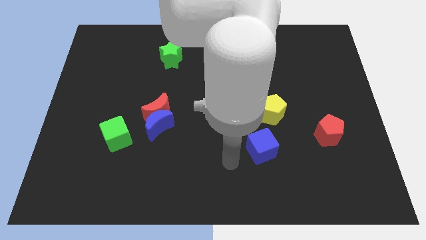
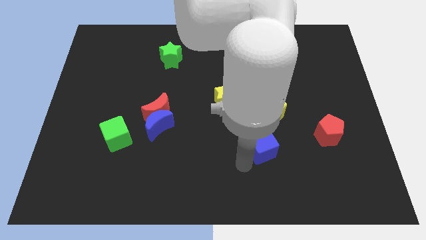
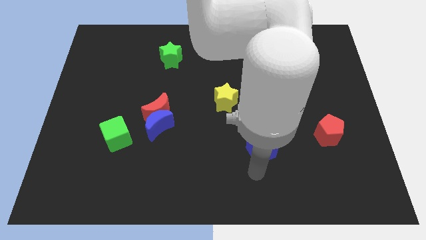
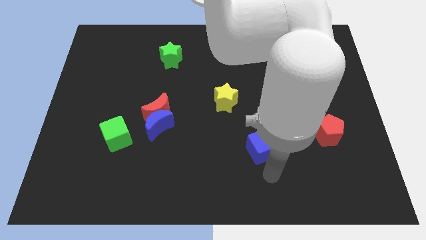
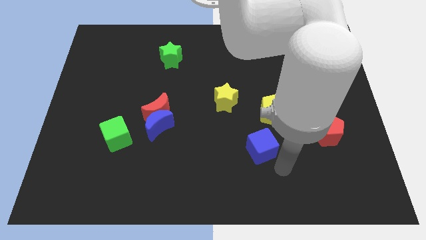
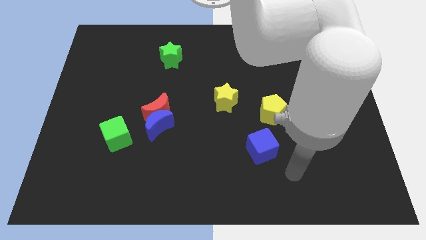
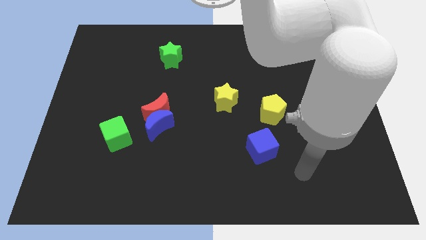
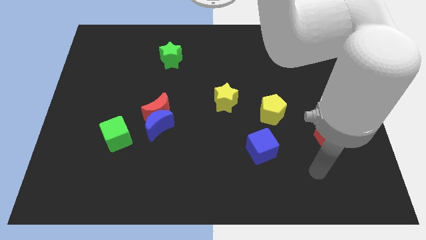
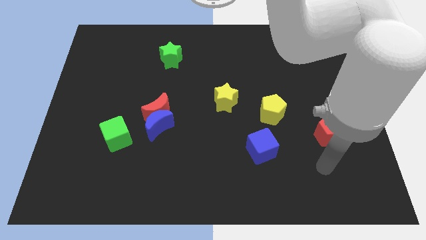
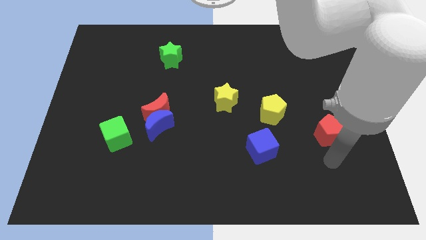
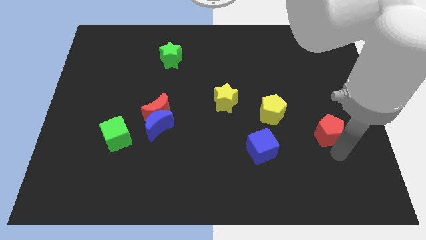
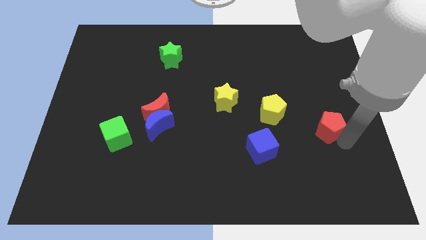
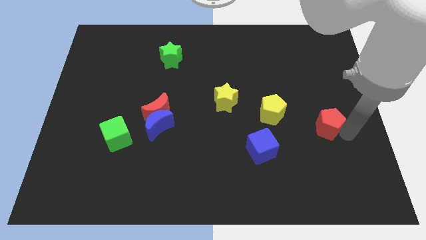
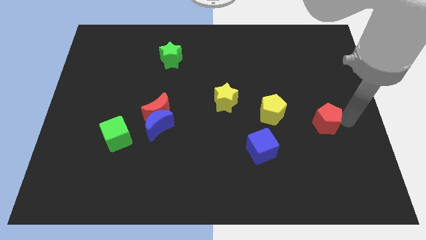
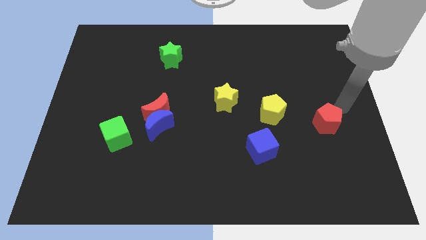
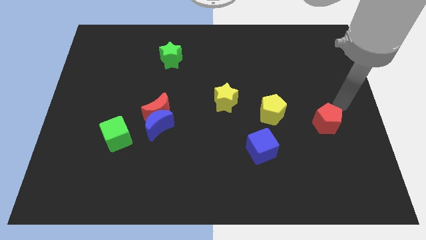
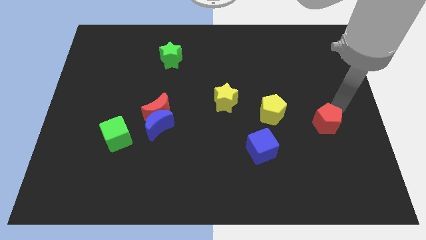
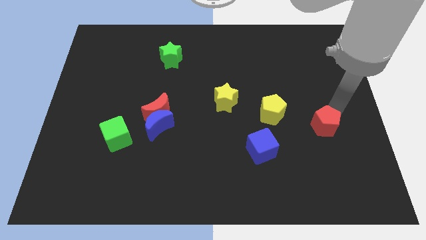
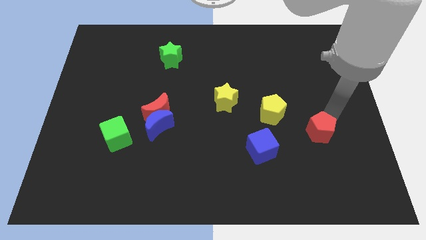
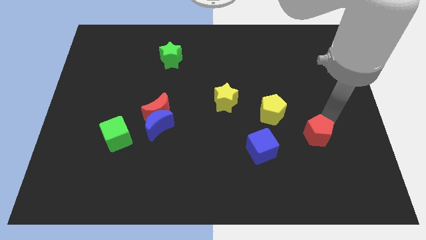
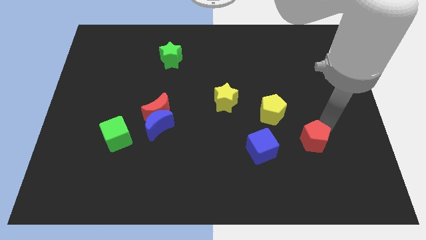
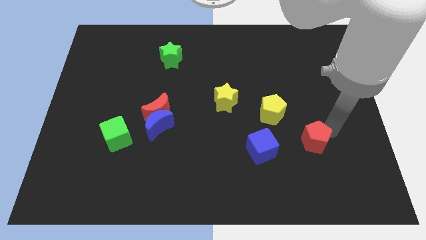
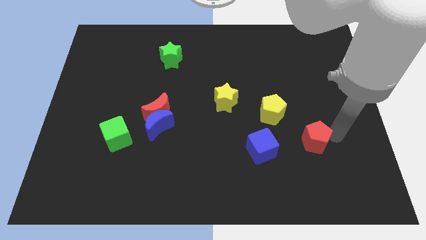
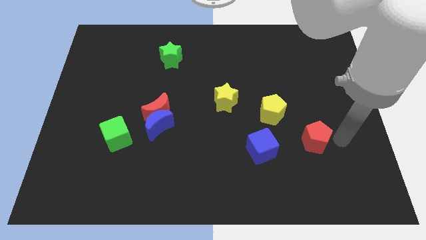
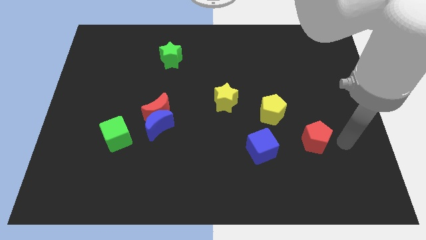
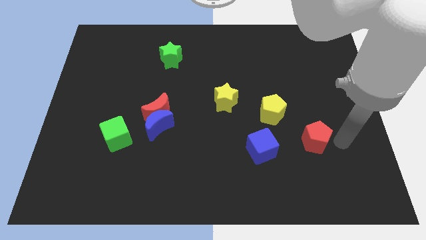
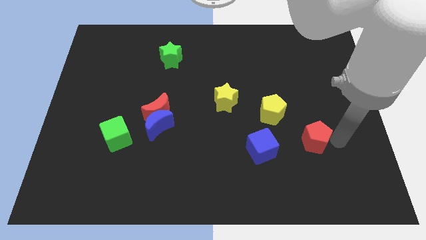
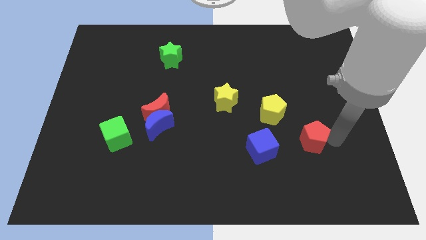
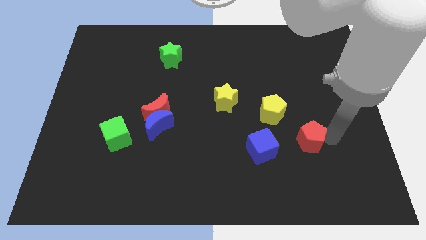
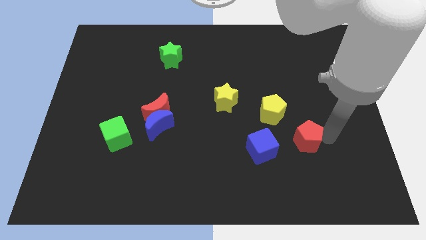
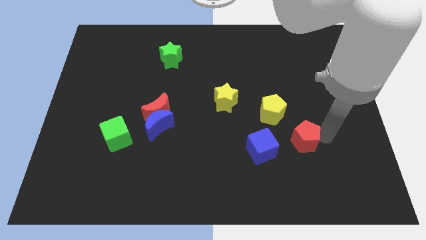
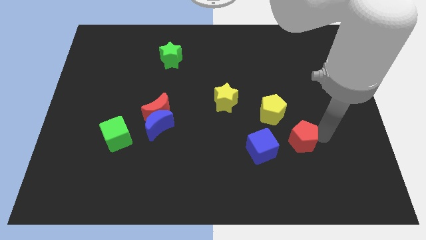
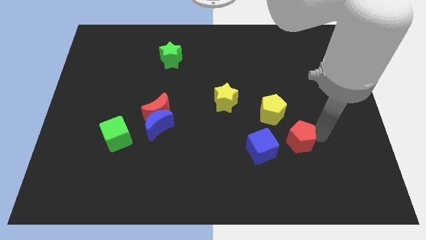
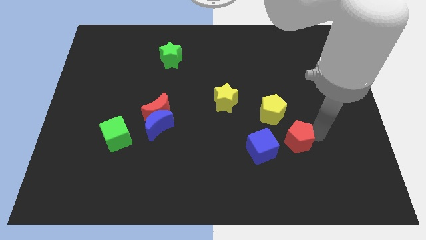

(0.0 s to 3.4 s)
move the red pentagon somewhat to the left

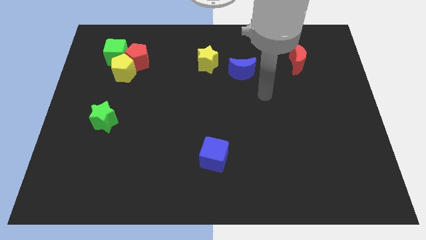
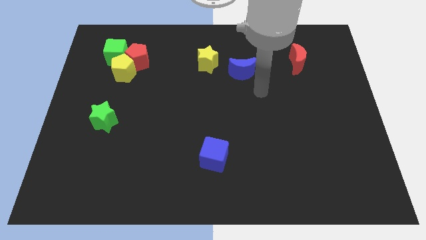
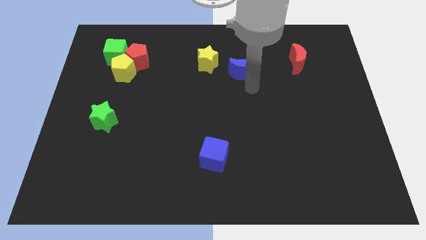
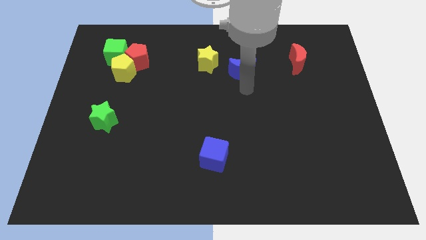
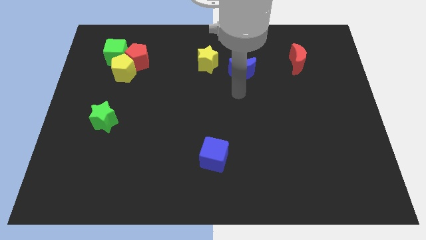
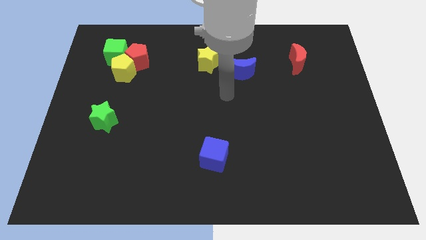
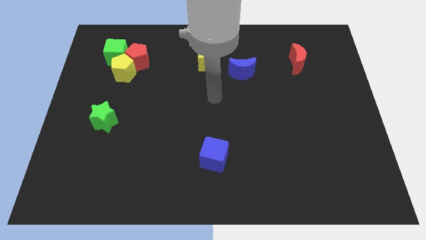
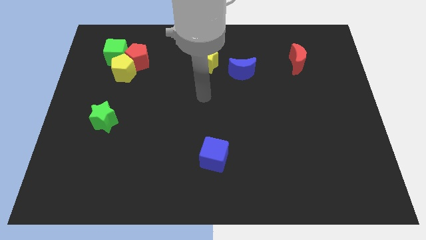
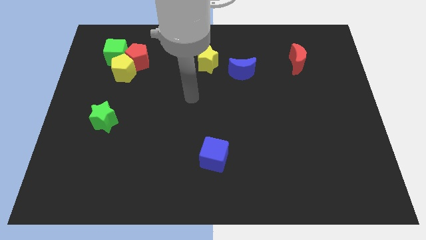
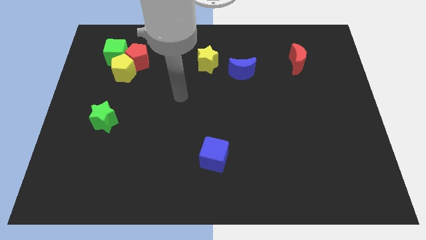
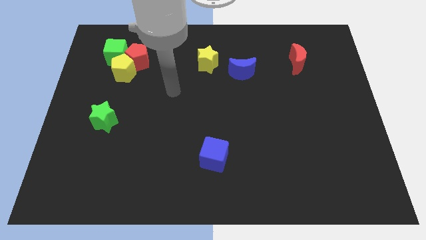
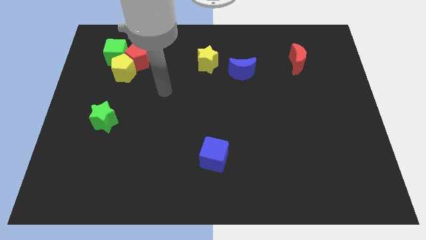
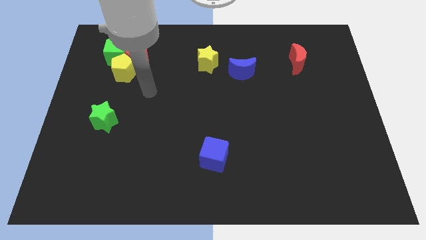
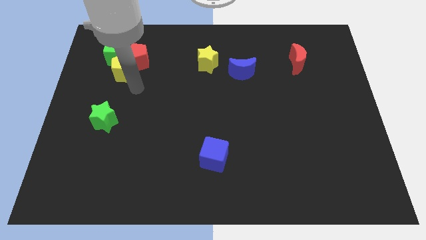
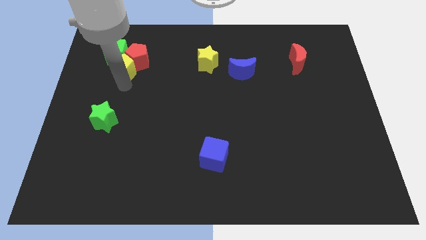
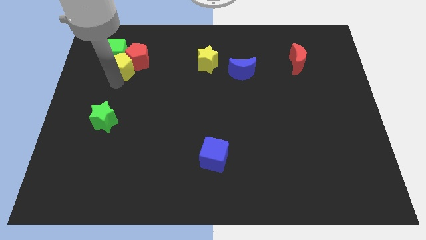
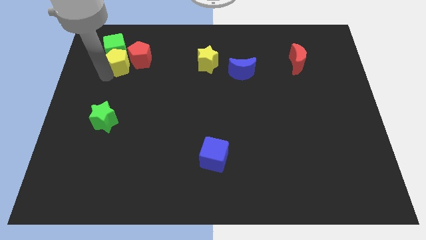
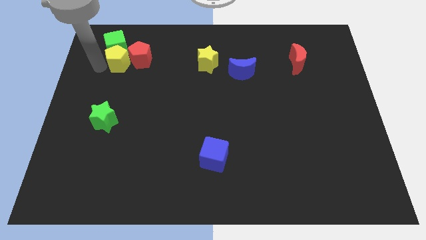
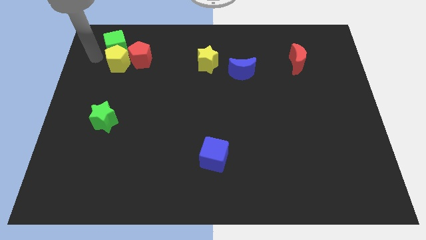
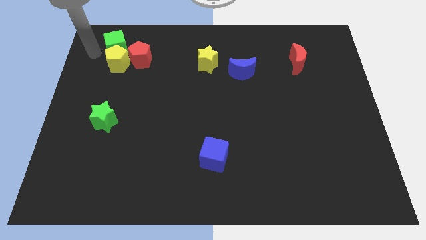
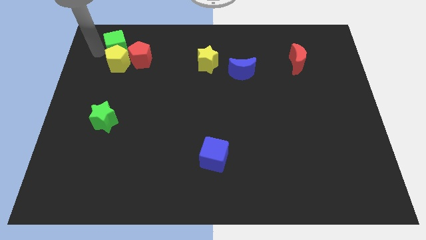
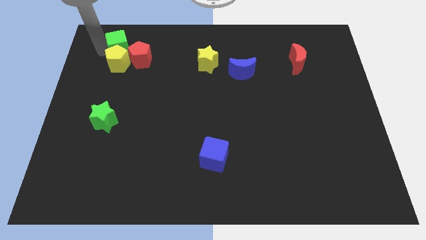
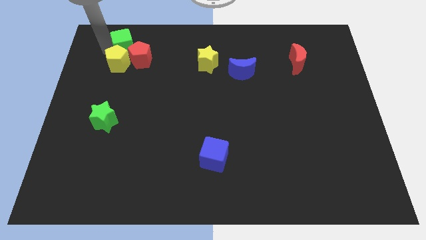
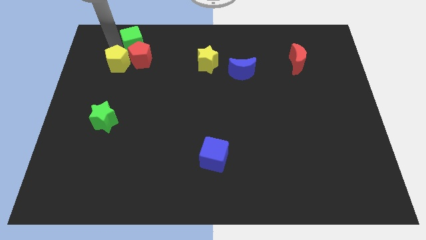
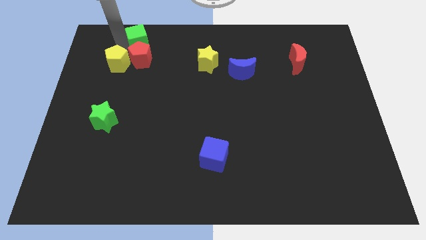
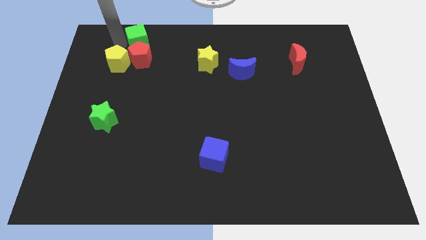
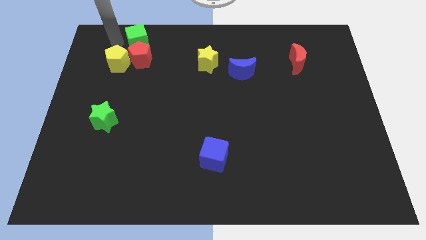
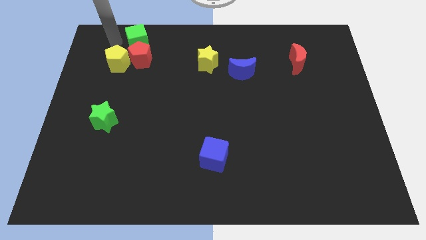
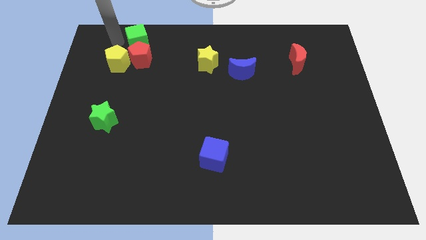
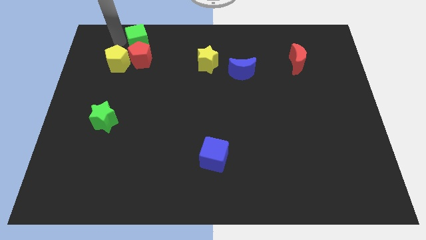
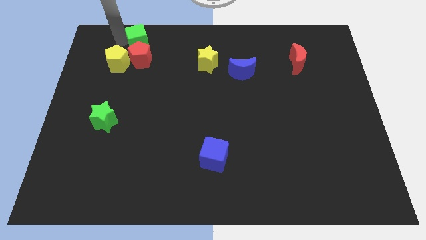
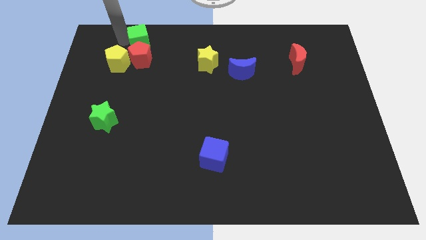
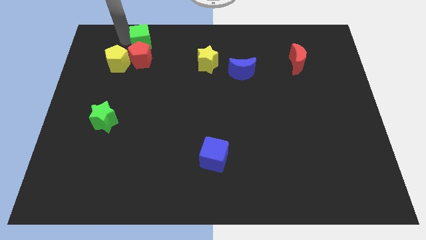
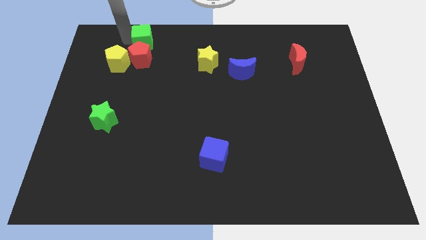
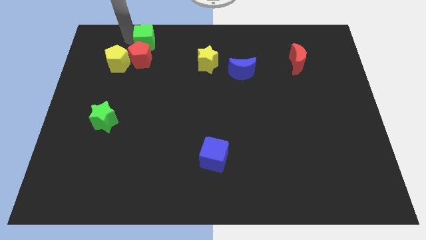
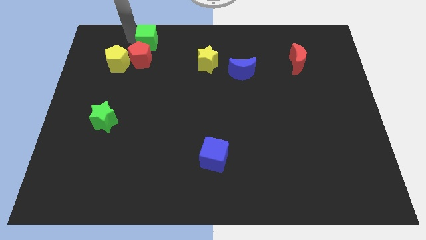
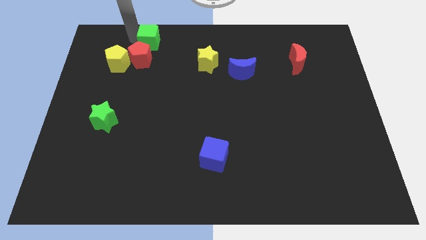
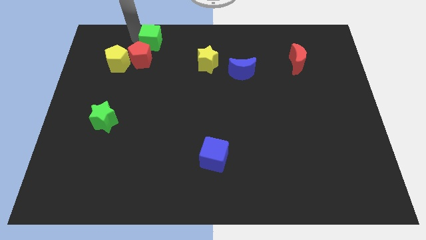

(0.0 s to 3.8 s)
push the green cube a little right

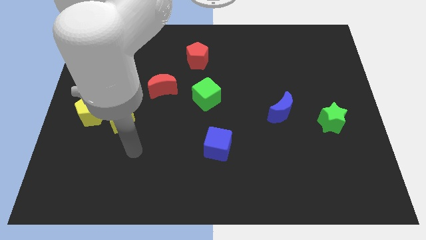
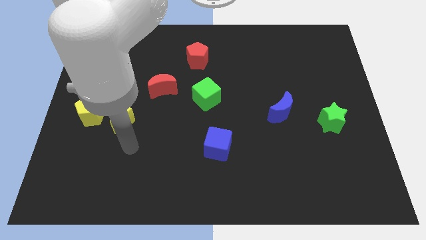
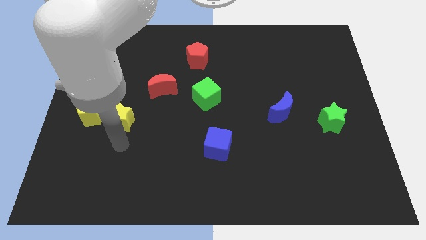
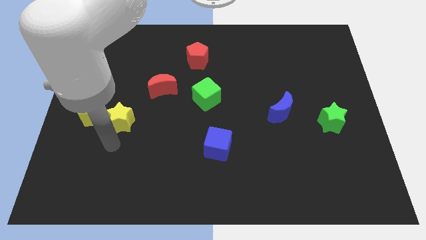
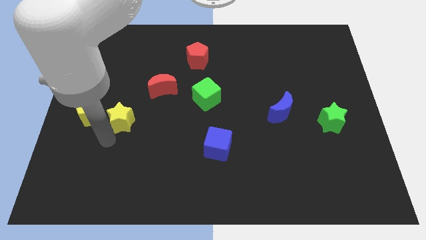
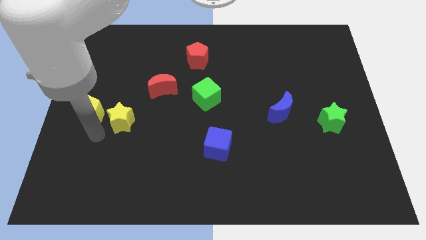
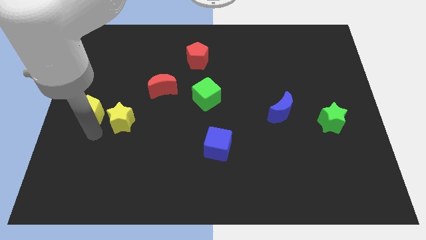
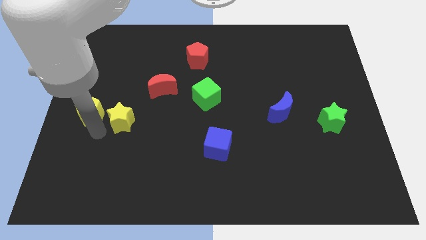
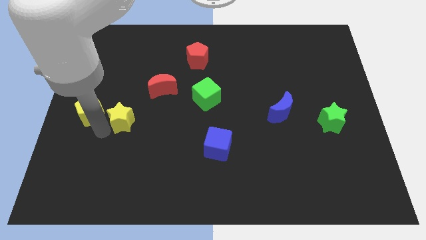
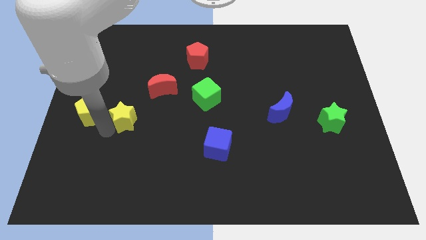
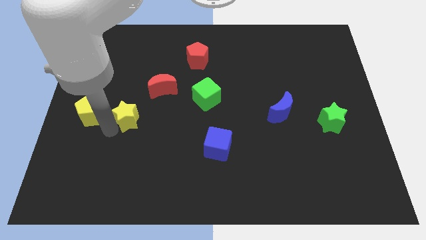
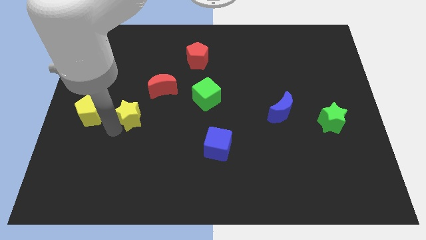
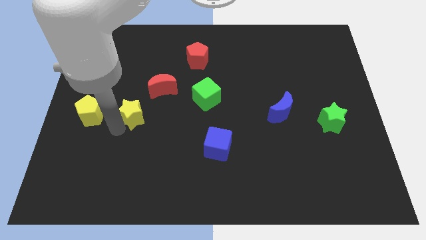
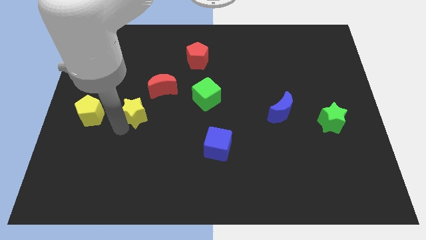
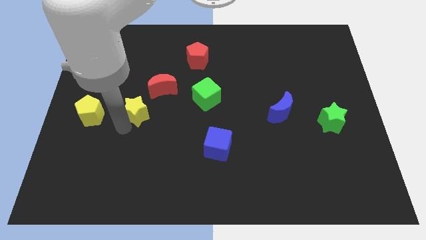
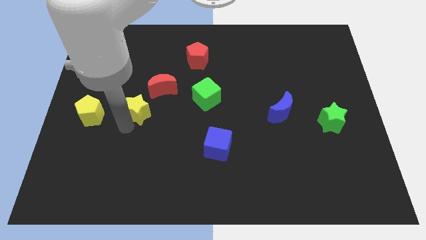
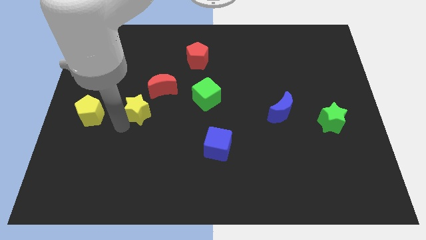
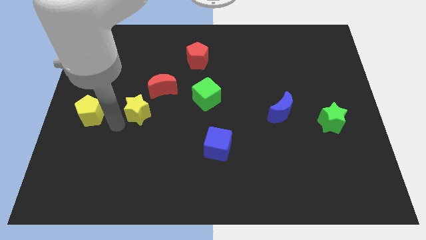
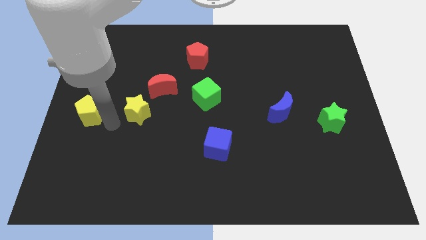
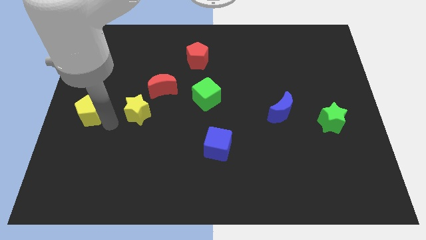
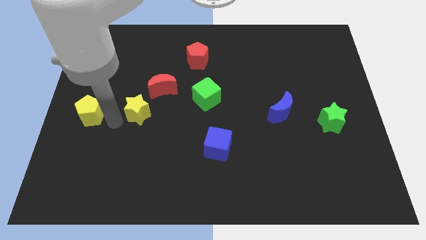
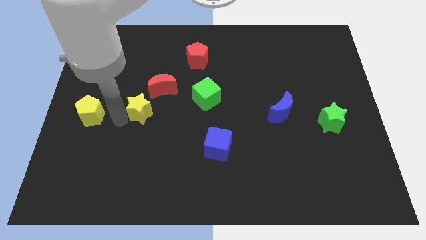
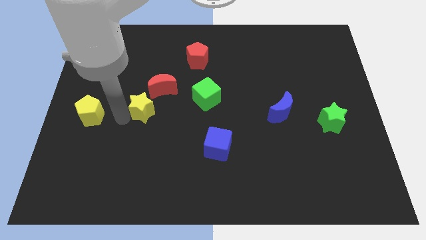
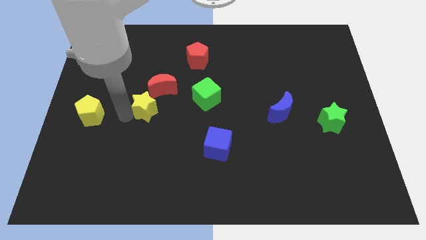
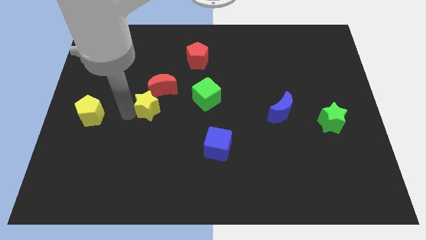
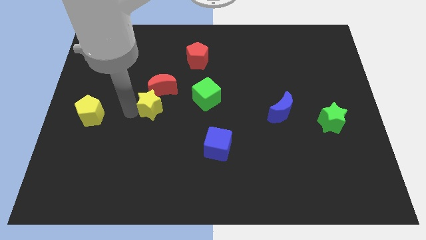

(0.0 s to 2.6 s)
slide the yellow star upwards and then to the right a little
